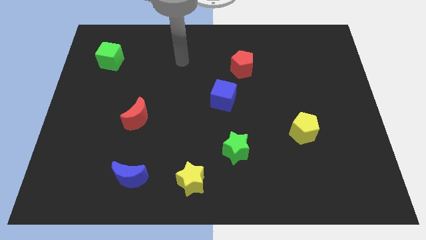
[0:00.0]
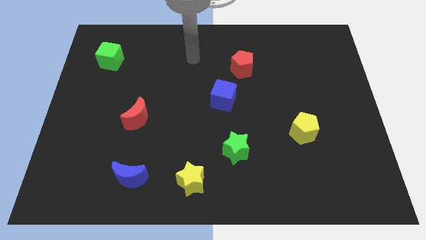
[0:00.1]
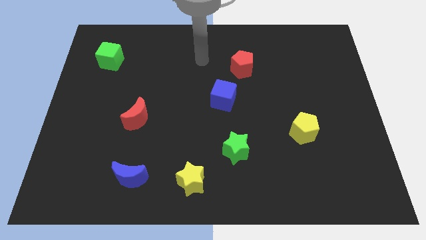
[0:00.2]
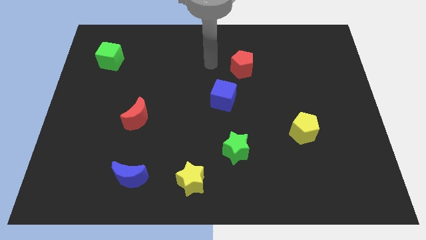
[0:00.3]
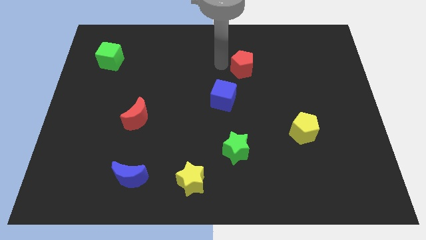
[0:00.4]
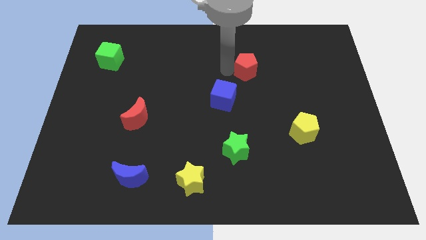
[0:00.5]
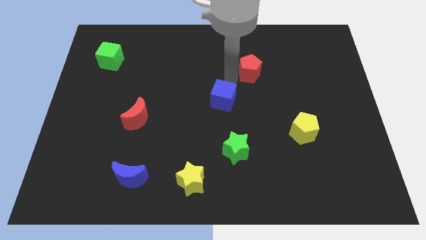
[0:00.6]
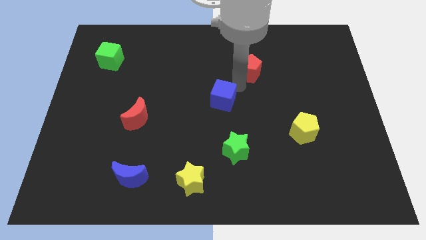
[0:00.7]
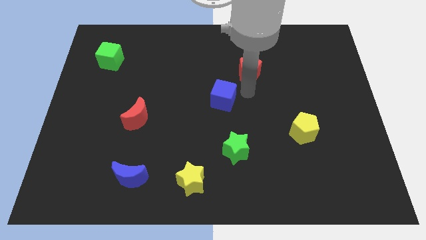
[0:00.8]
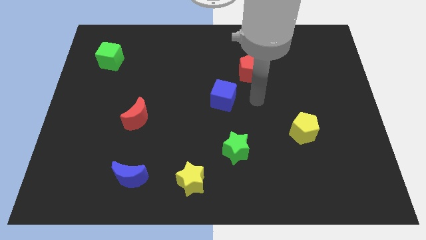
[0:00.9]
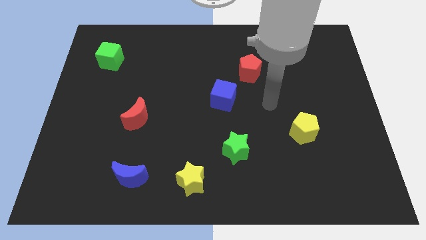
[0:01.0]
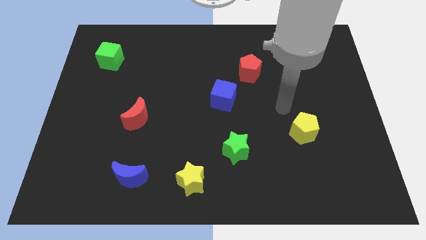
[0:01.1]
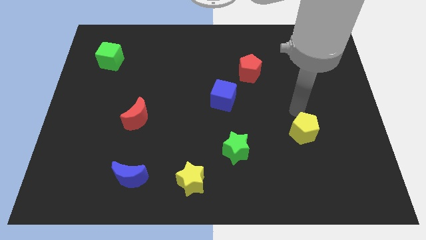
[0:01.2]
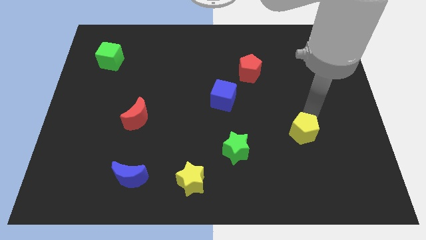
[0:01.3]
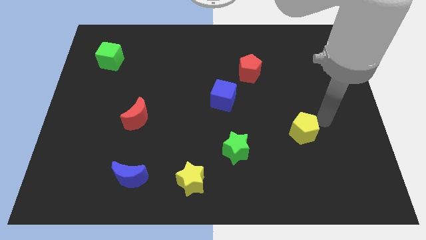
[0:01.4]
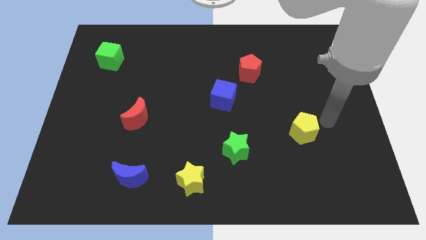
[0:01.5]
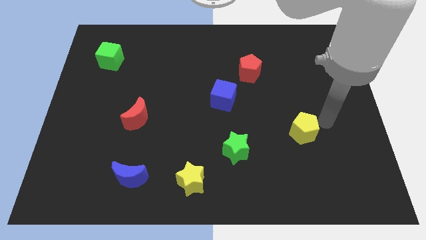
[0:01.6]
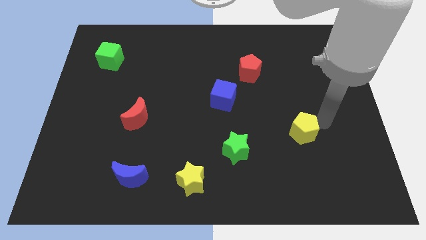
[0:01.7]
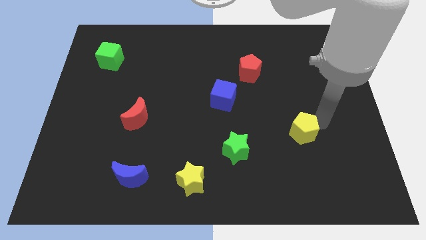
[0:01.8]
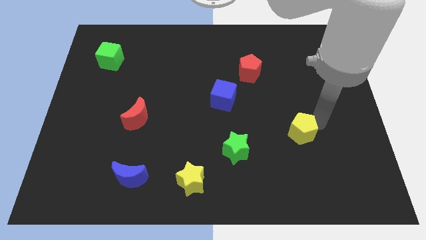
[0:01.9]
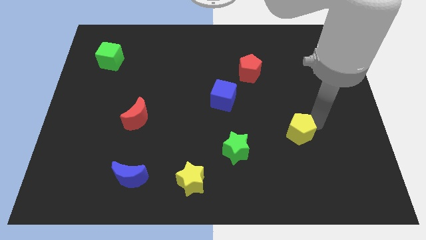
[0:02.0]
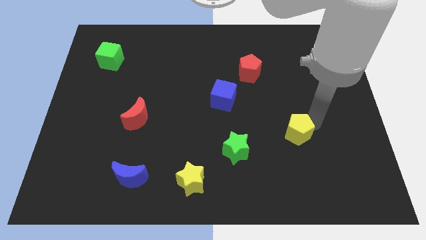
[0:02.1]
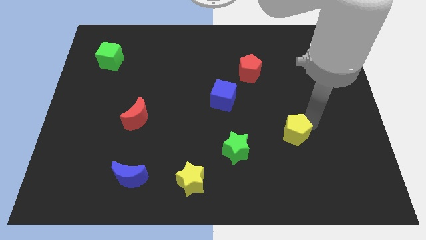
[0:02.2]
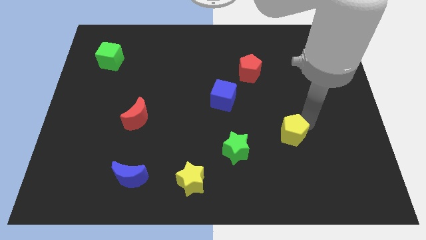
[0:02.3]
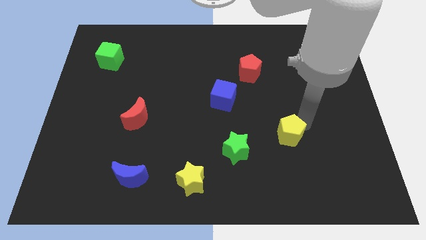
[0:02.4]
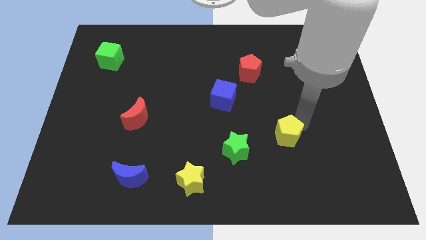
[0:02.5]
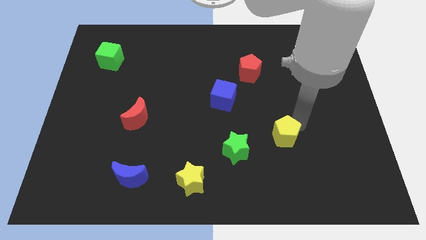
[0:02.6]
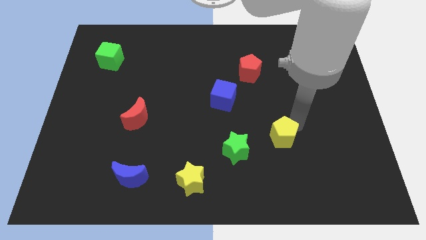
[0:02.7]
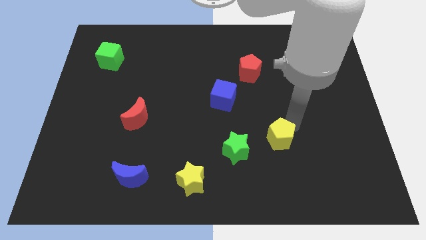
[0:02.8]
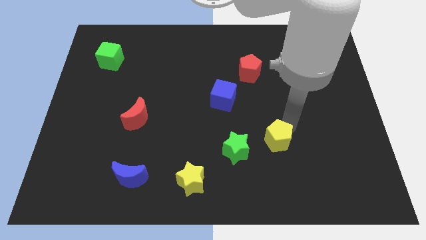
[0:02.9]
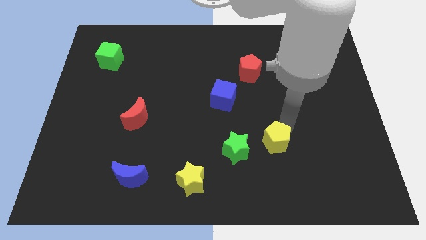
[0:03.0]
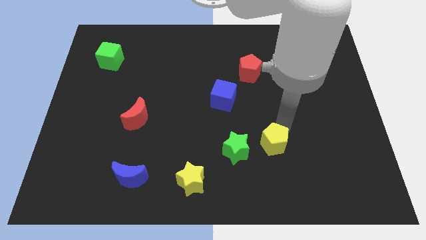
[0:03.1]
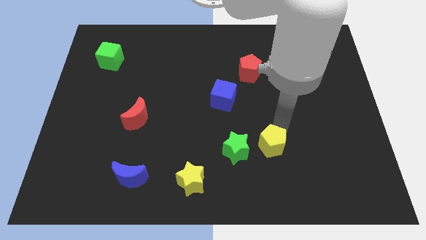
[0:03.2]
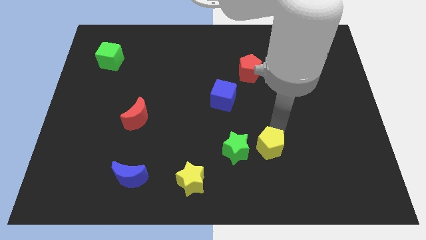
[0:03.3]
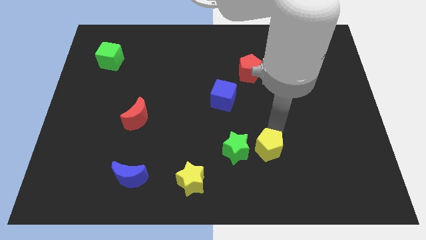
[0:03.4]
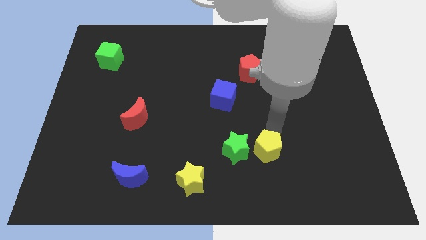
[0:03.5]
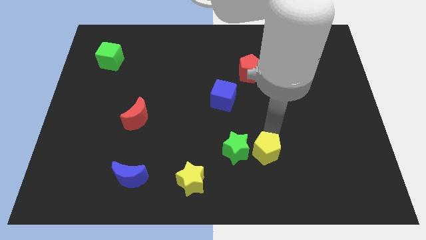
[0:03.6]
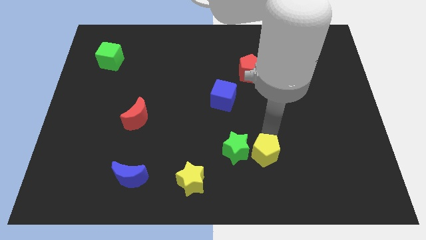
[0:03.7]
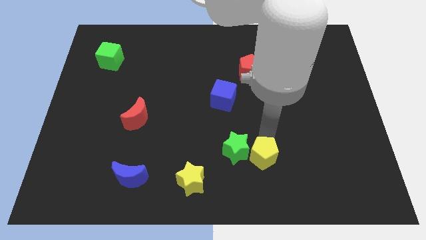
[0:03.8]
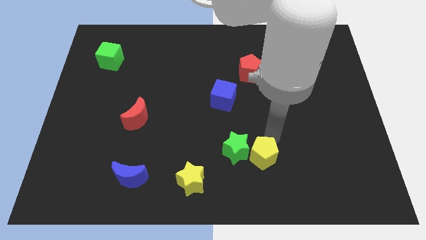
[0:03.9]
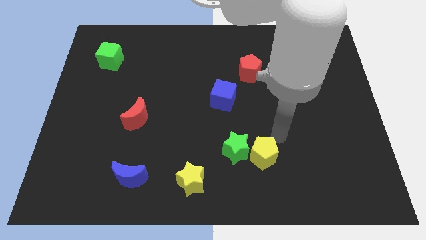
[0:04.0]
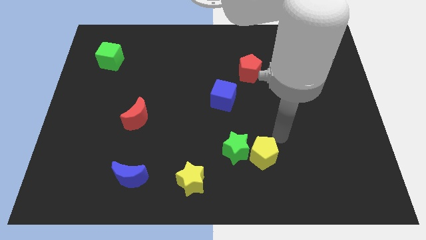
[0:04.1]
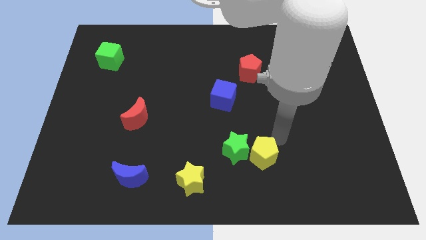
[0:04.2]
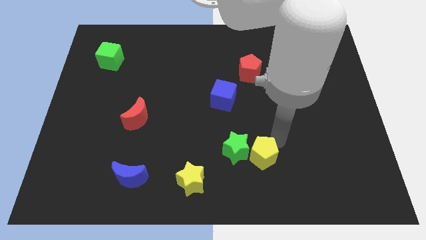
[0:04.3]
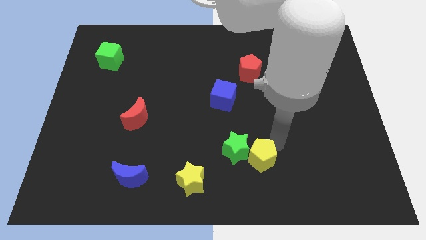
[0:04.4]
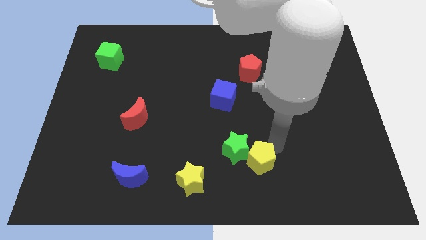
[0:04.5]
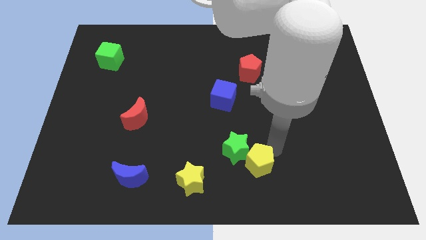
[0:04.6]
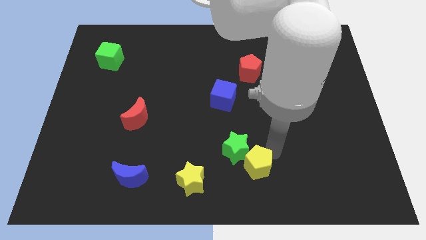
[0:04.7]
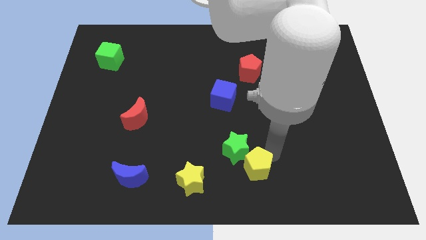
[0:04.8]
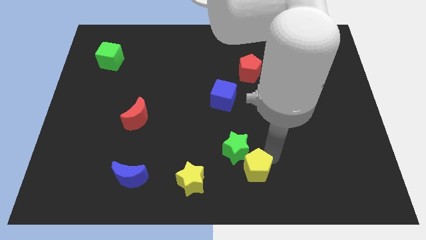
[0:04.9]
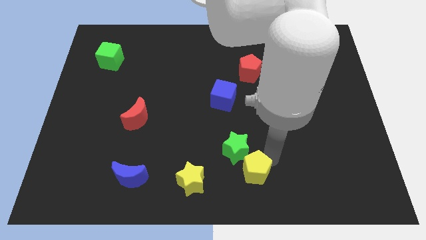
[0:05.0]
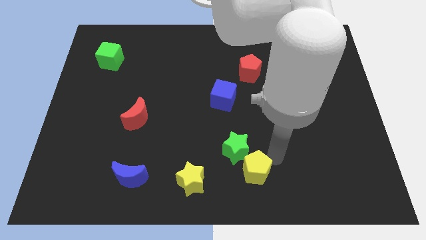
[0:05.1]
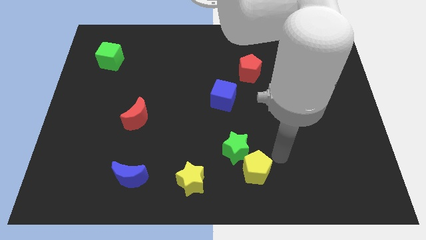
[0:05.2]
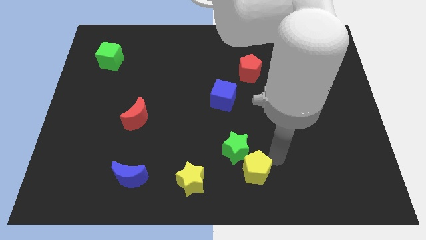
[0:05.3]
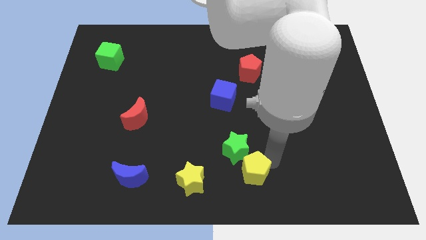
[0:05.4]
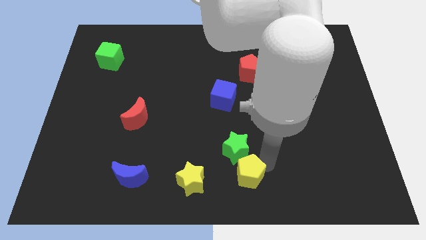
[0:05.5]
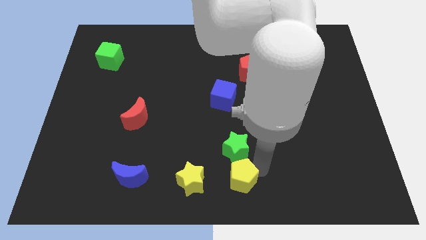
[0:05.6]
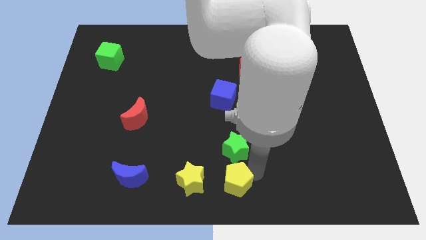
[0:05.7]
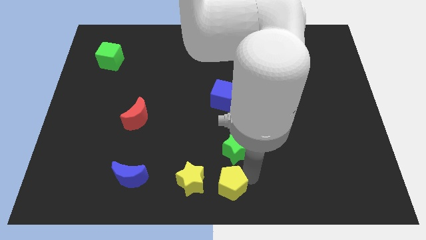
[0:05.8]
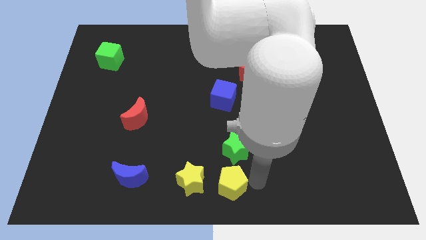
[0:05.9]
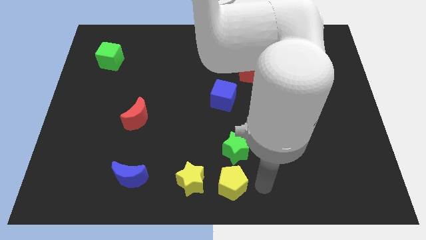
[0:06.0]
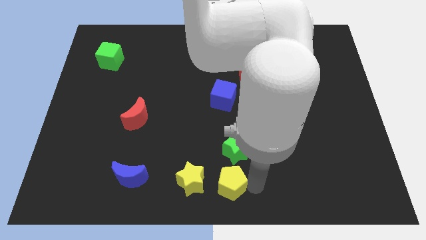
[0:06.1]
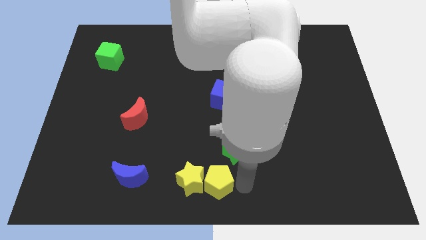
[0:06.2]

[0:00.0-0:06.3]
slide the yellow pentagon next to the yellow star

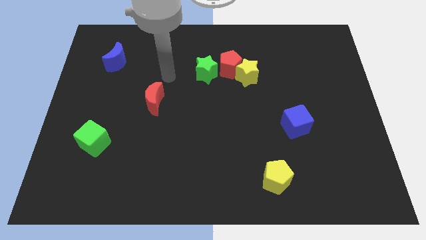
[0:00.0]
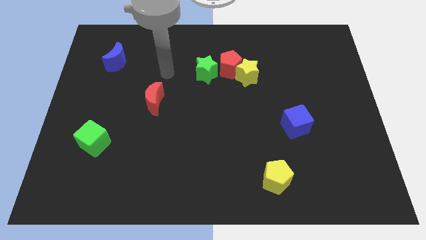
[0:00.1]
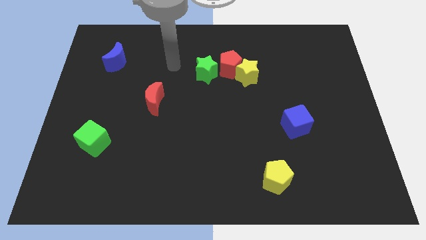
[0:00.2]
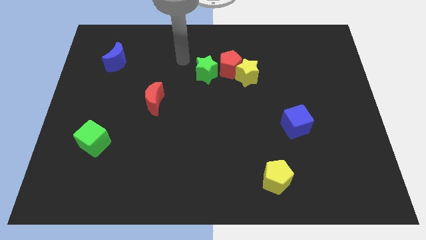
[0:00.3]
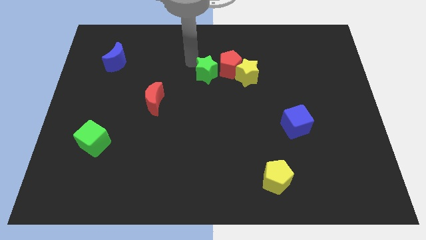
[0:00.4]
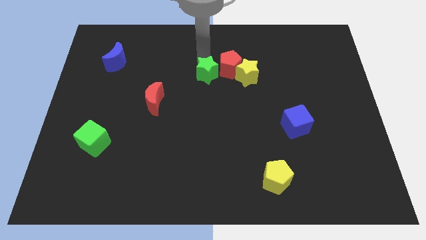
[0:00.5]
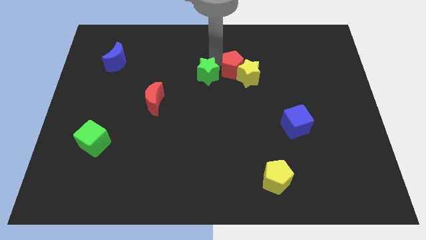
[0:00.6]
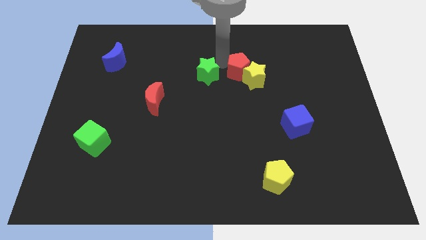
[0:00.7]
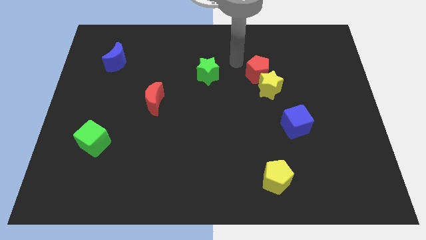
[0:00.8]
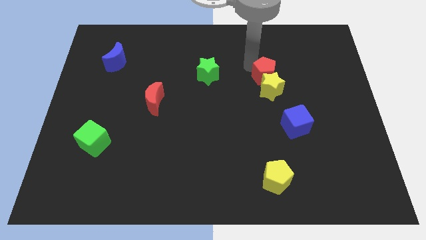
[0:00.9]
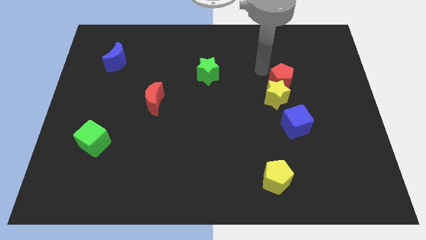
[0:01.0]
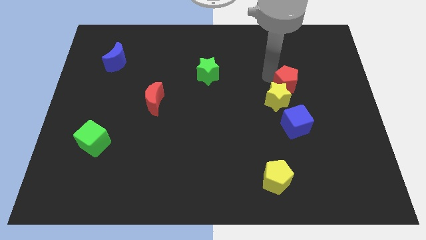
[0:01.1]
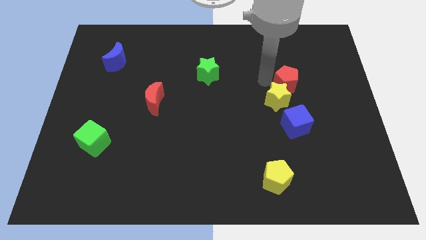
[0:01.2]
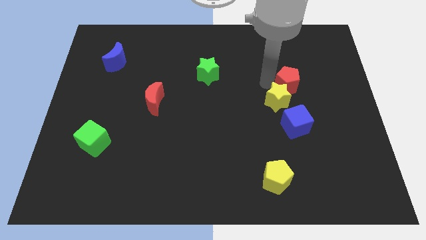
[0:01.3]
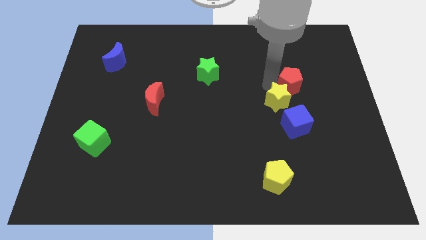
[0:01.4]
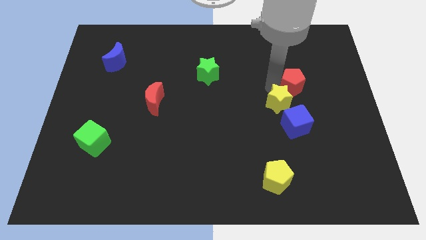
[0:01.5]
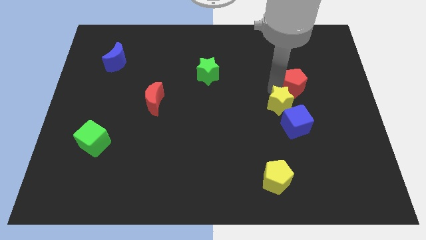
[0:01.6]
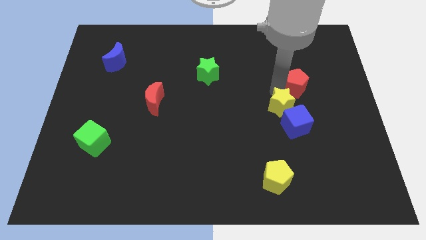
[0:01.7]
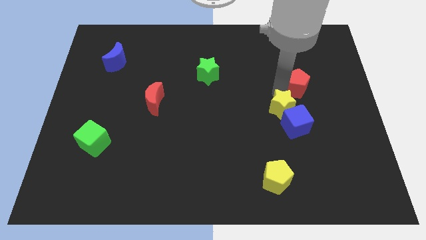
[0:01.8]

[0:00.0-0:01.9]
slide the yellow star next to the blue cube

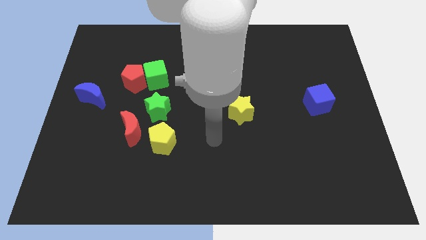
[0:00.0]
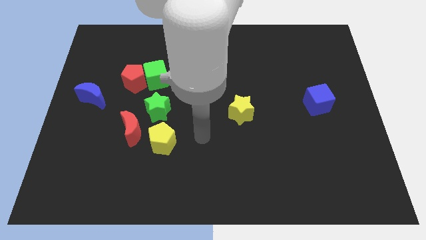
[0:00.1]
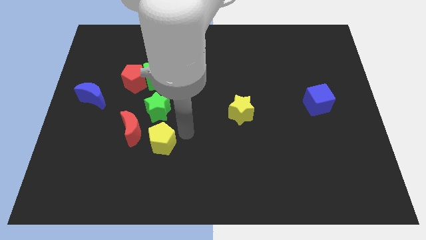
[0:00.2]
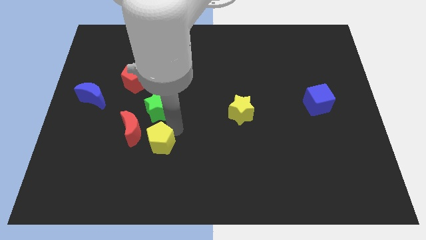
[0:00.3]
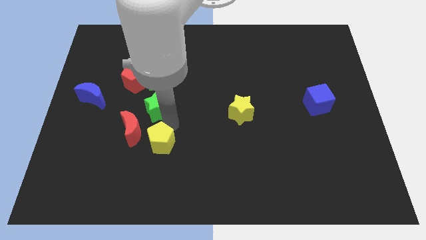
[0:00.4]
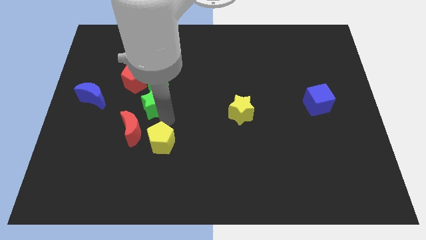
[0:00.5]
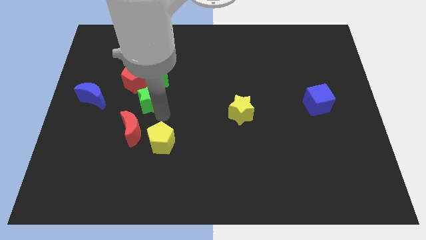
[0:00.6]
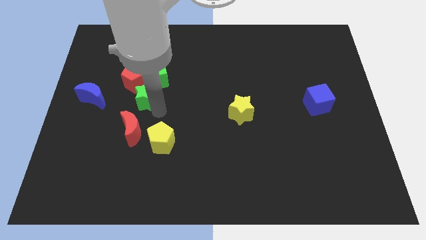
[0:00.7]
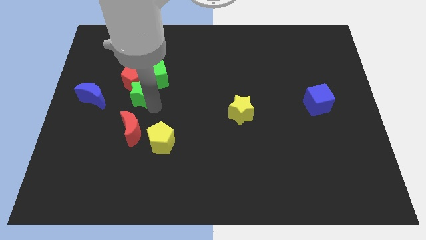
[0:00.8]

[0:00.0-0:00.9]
slide the green star to the red pentagon
